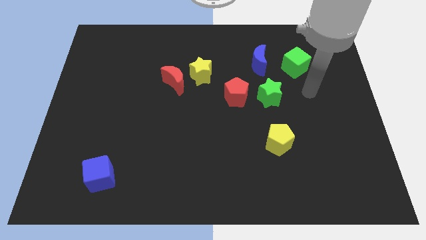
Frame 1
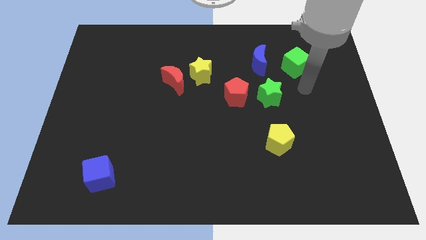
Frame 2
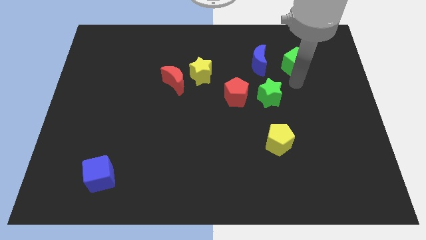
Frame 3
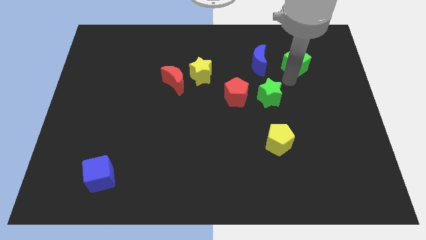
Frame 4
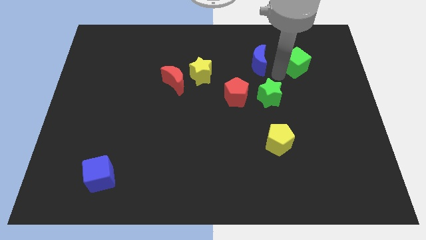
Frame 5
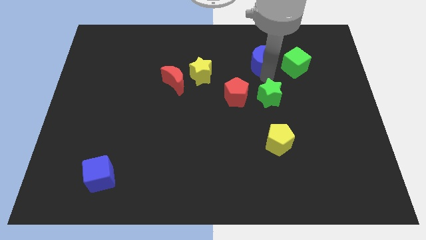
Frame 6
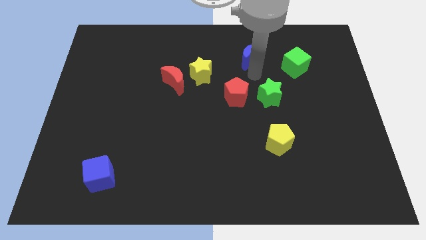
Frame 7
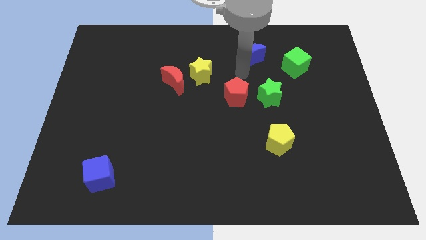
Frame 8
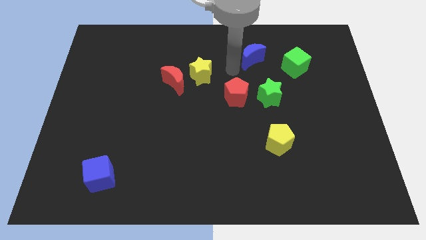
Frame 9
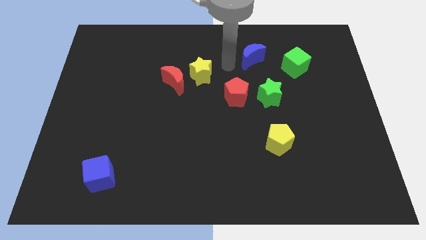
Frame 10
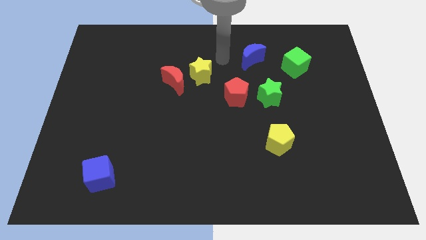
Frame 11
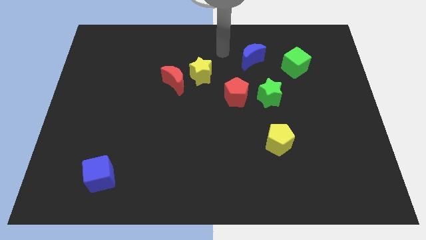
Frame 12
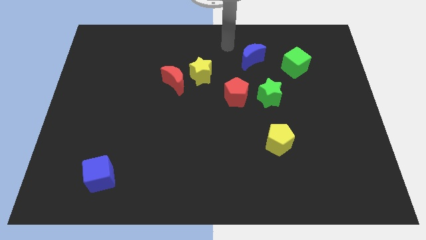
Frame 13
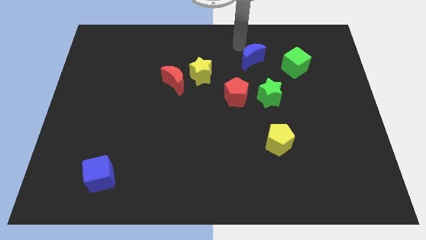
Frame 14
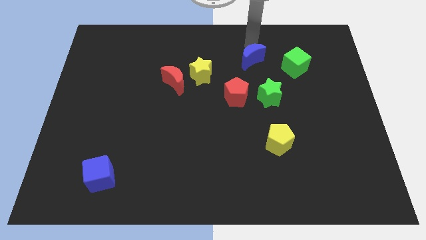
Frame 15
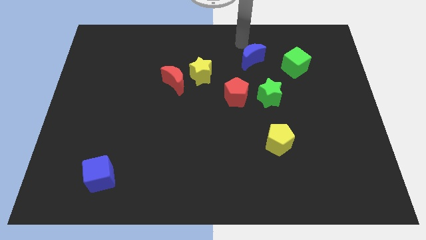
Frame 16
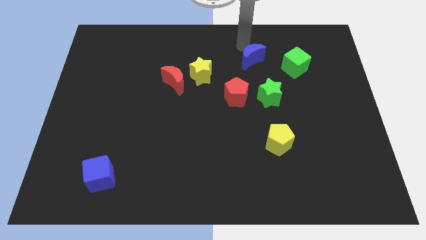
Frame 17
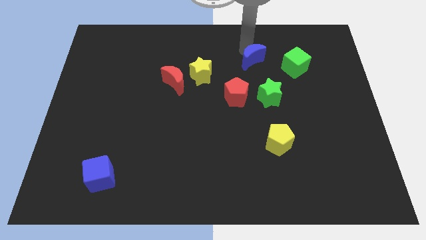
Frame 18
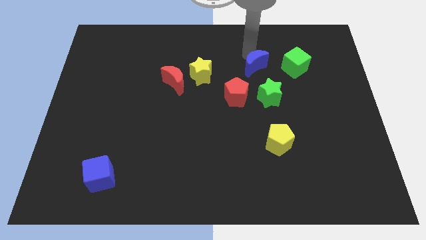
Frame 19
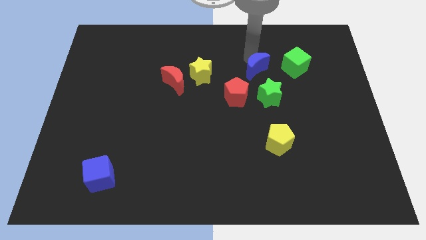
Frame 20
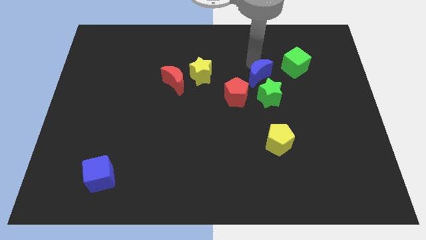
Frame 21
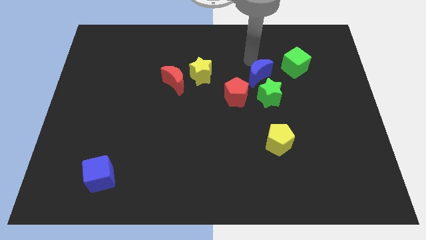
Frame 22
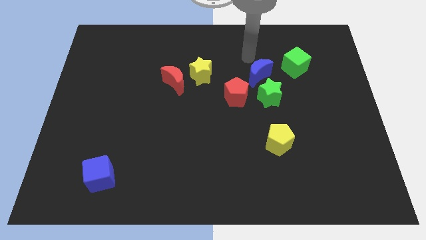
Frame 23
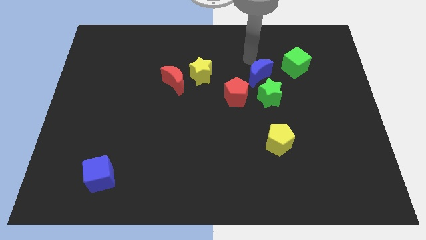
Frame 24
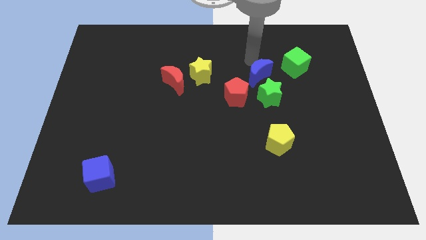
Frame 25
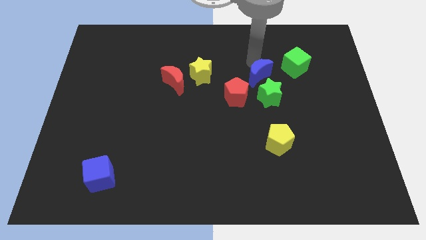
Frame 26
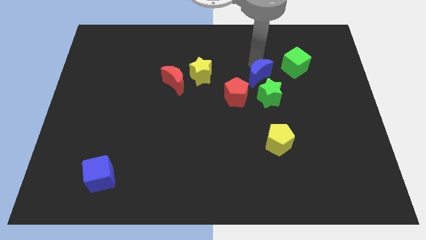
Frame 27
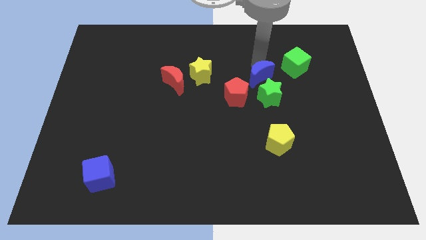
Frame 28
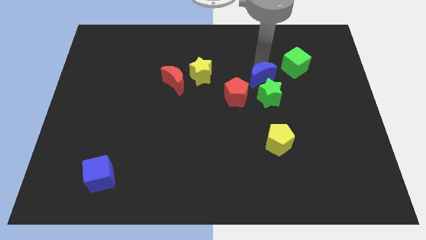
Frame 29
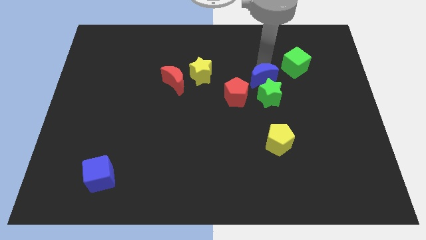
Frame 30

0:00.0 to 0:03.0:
move the blue moon towards the green star

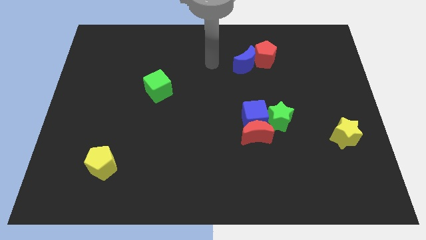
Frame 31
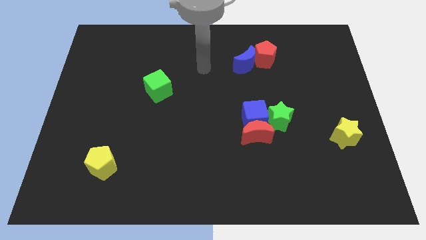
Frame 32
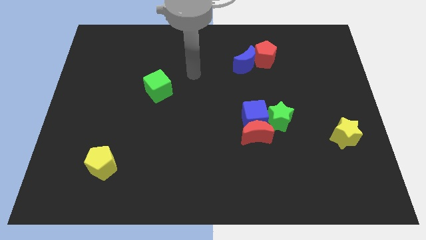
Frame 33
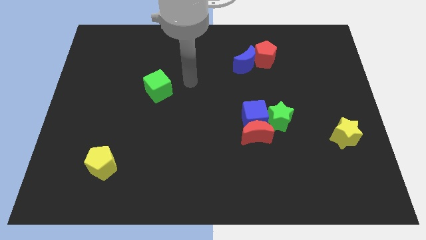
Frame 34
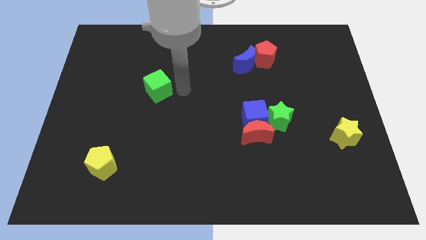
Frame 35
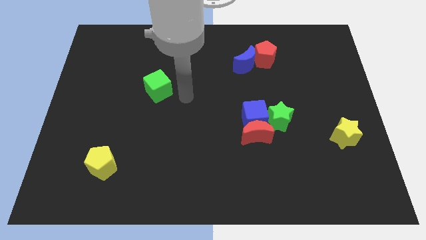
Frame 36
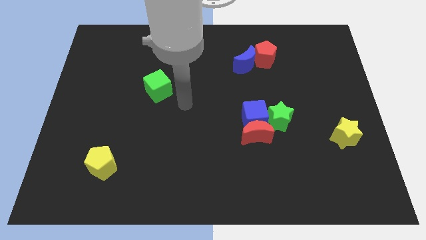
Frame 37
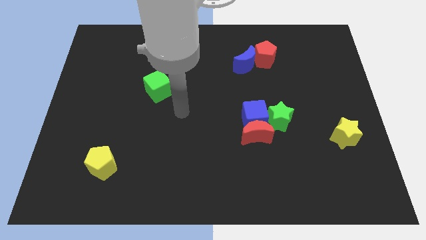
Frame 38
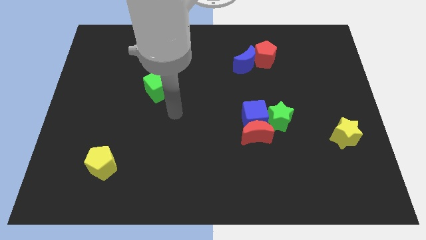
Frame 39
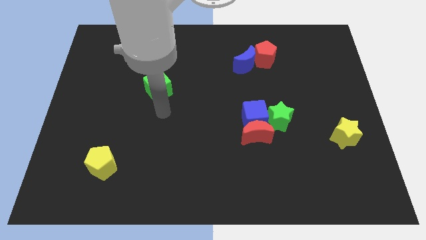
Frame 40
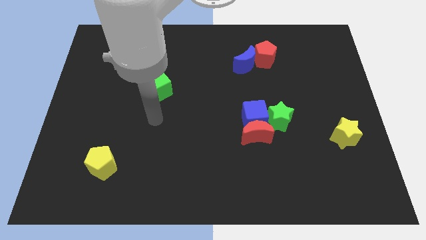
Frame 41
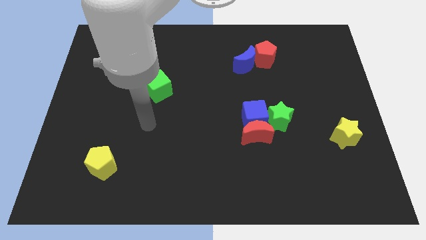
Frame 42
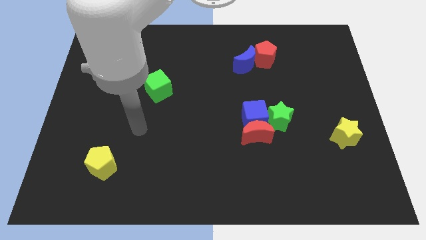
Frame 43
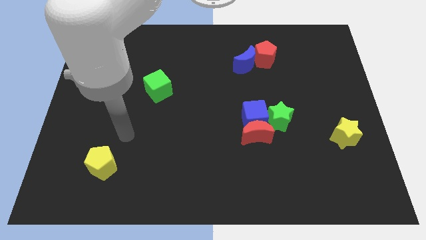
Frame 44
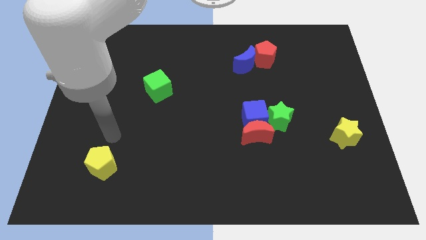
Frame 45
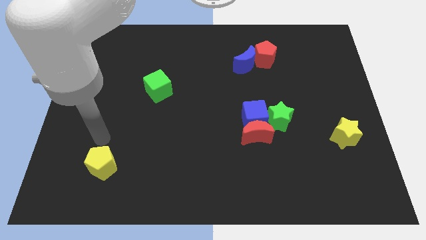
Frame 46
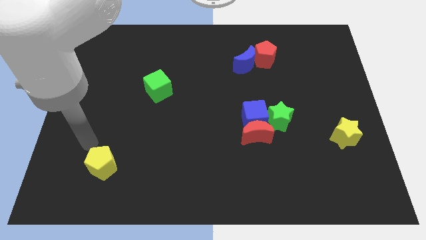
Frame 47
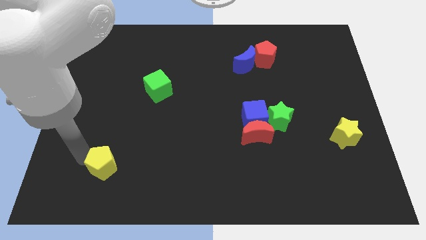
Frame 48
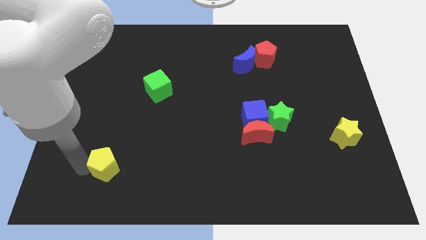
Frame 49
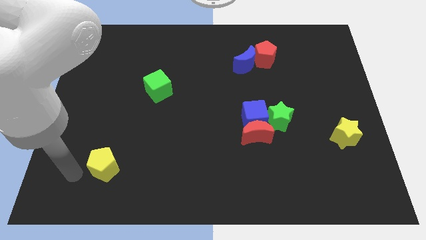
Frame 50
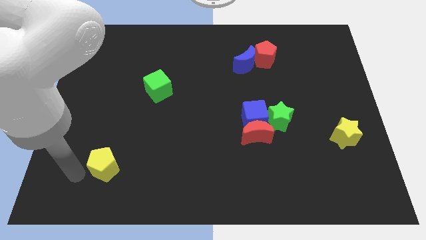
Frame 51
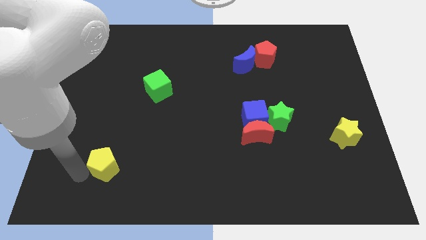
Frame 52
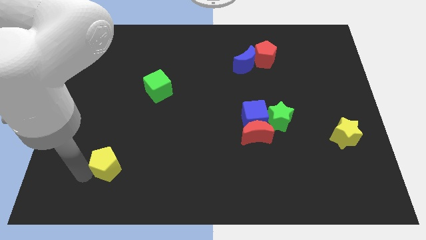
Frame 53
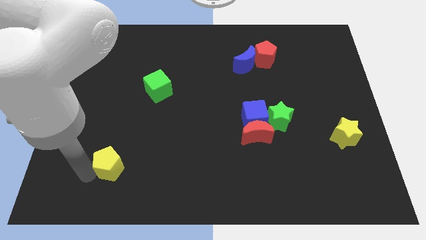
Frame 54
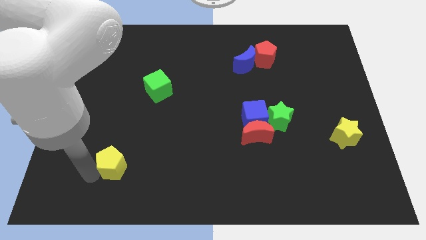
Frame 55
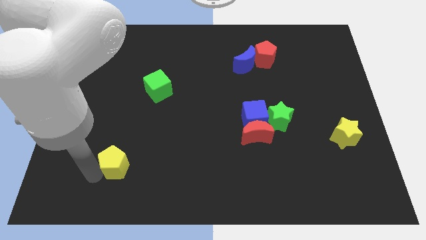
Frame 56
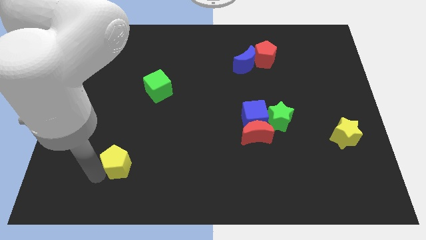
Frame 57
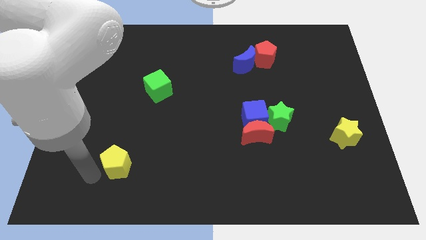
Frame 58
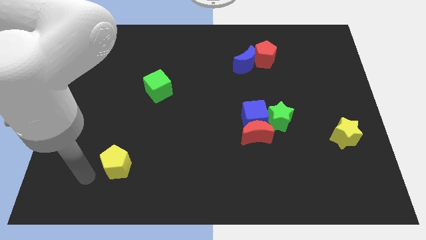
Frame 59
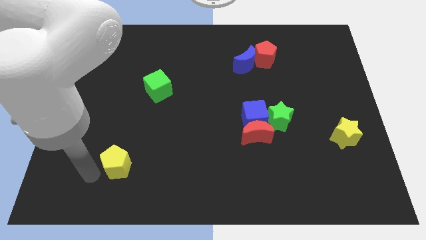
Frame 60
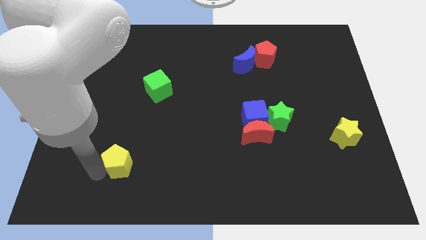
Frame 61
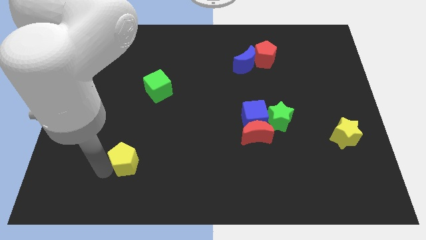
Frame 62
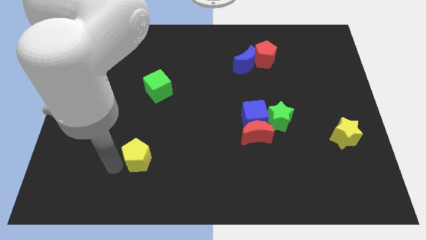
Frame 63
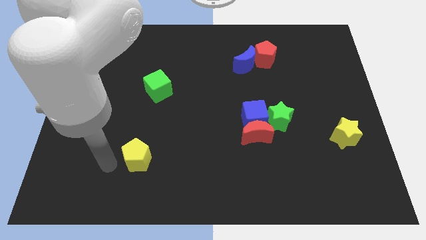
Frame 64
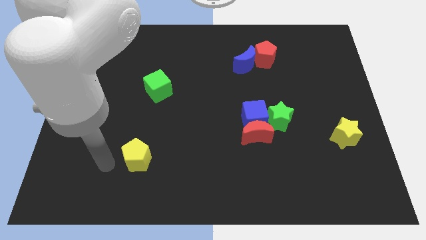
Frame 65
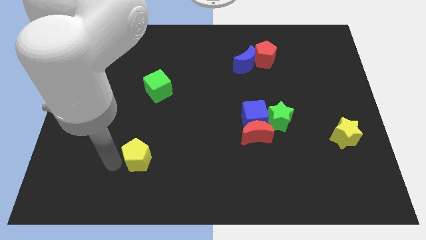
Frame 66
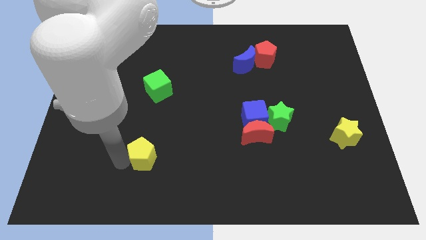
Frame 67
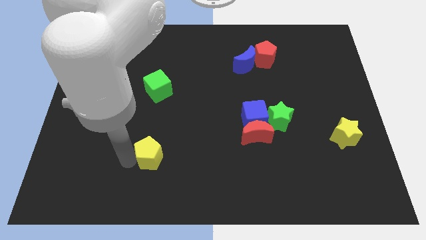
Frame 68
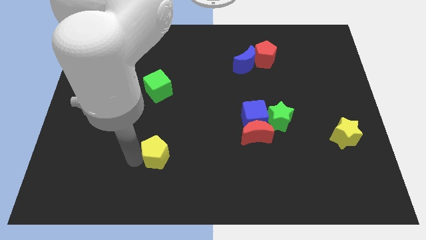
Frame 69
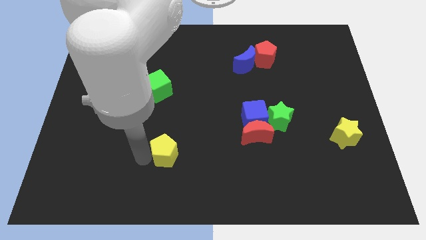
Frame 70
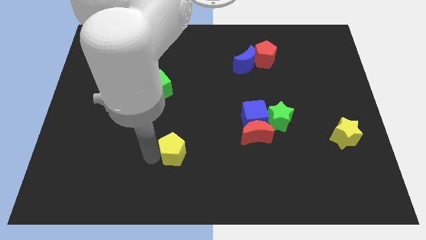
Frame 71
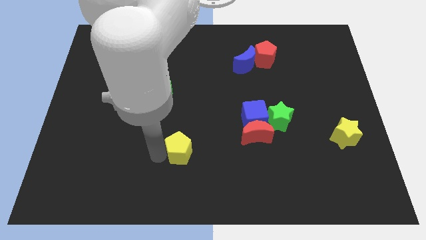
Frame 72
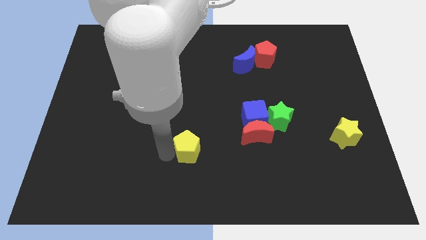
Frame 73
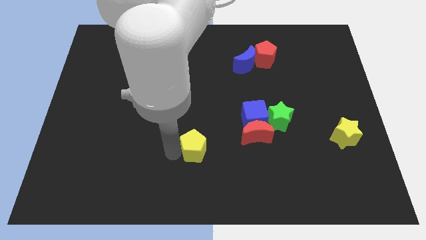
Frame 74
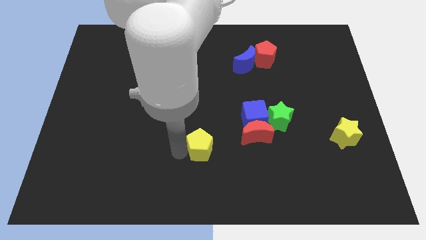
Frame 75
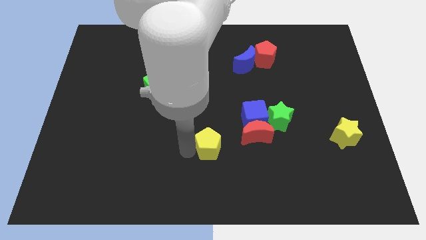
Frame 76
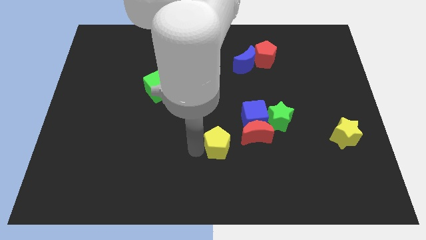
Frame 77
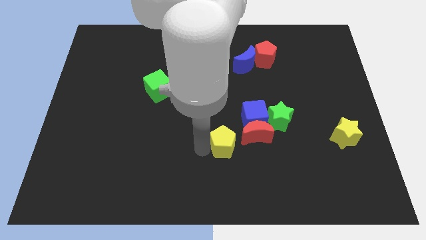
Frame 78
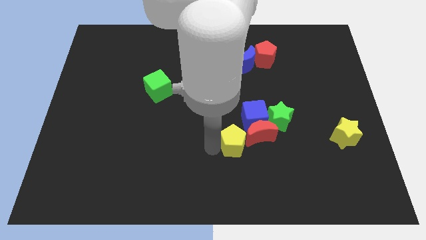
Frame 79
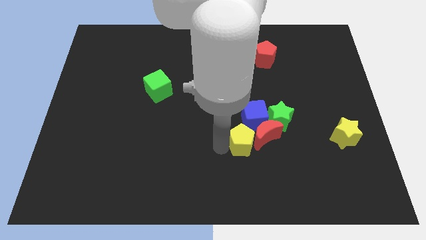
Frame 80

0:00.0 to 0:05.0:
put the yellow pentagon to the red moon

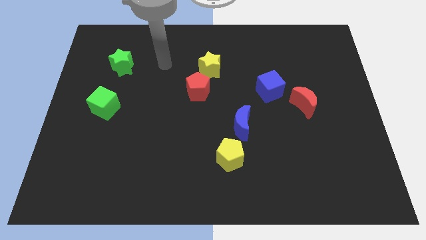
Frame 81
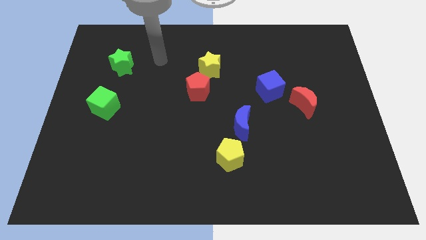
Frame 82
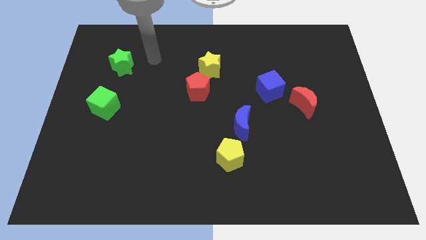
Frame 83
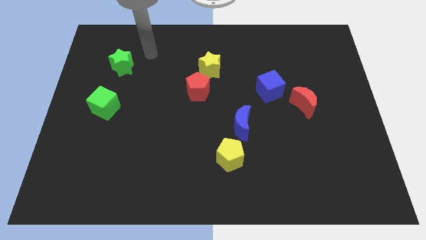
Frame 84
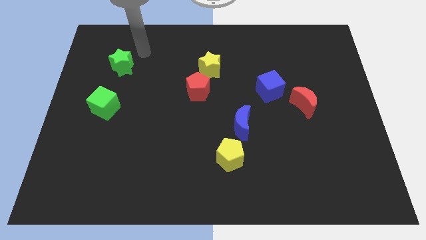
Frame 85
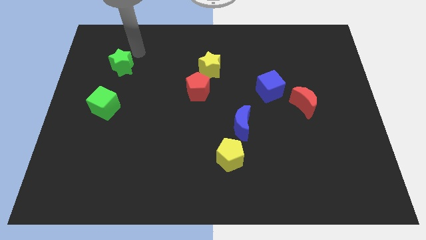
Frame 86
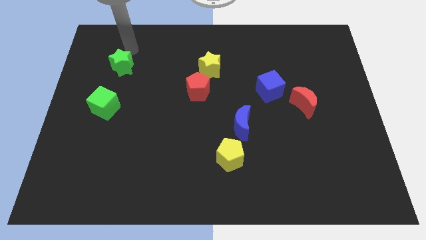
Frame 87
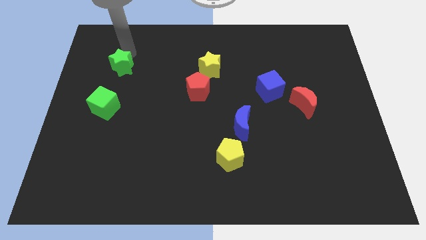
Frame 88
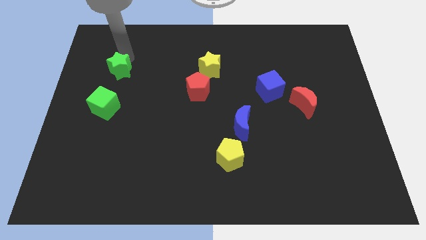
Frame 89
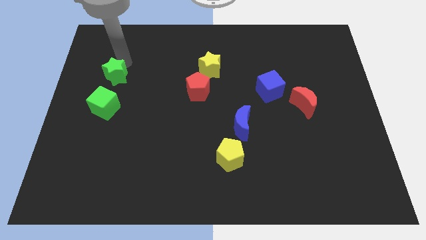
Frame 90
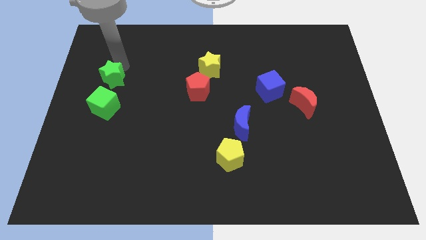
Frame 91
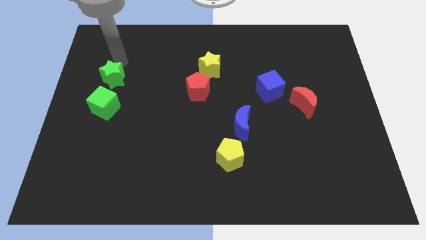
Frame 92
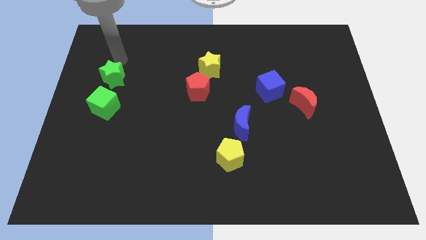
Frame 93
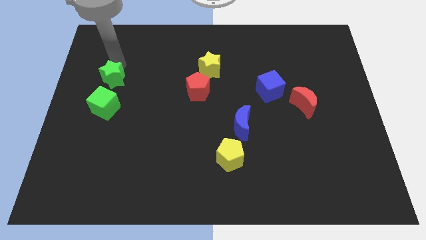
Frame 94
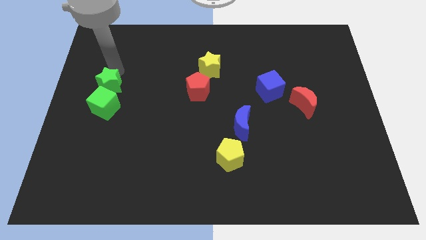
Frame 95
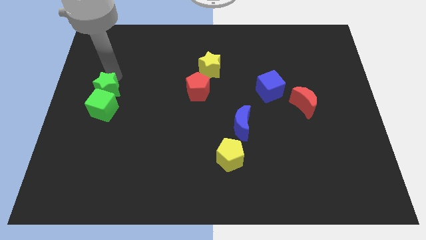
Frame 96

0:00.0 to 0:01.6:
move the green star towards the green cube
